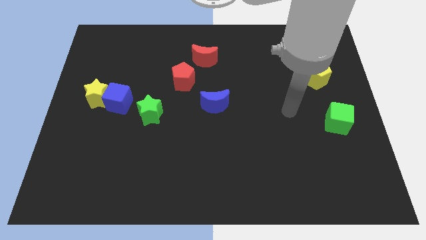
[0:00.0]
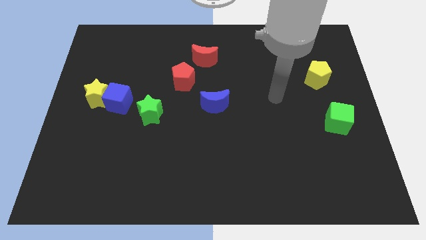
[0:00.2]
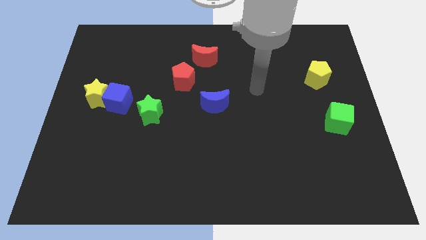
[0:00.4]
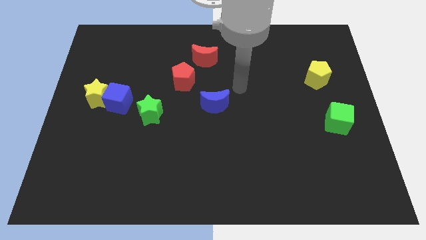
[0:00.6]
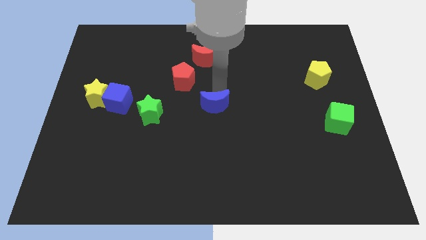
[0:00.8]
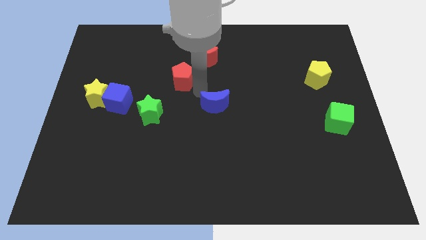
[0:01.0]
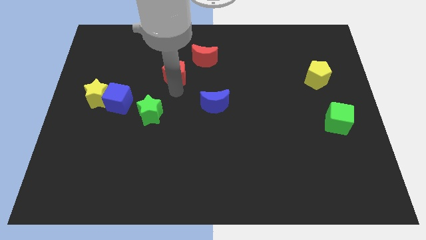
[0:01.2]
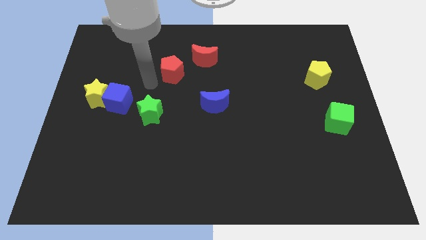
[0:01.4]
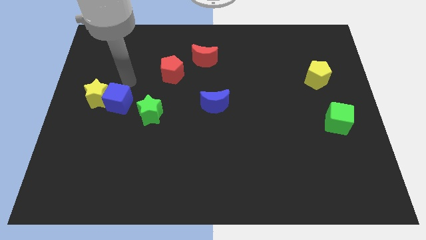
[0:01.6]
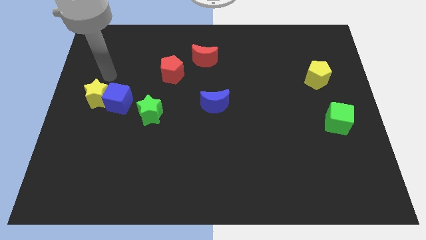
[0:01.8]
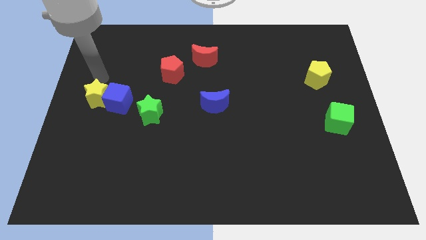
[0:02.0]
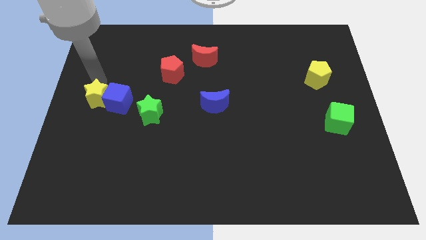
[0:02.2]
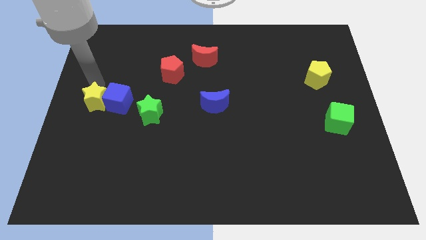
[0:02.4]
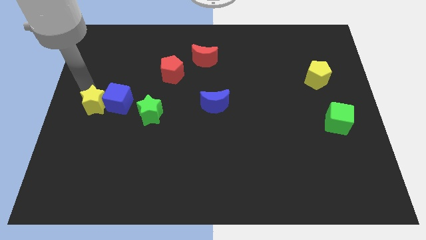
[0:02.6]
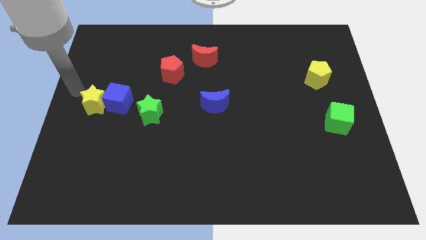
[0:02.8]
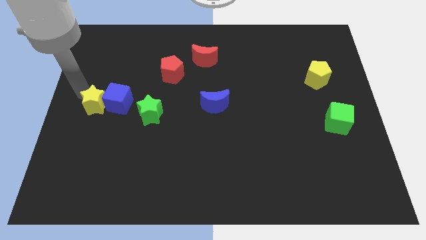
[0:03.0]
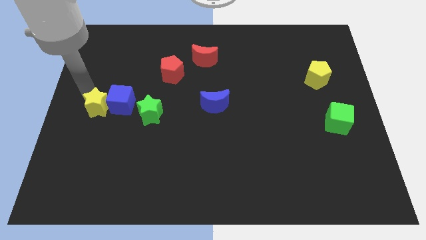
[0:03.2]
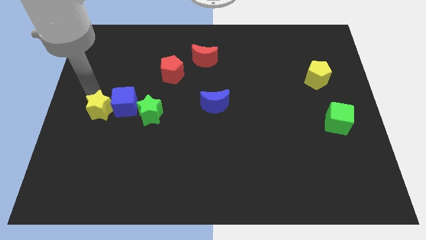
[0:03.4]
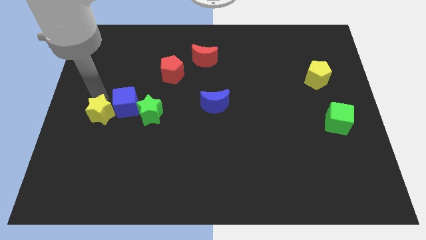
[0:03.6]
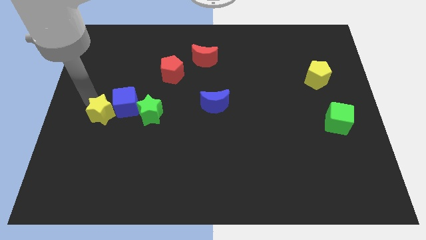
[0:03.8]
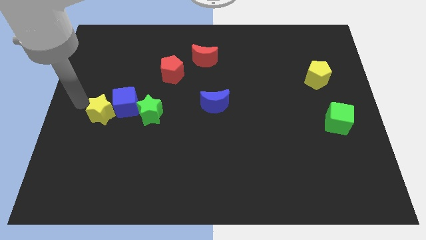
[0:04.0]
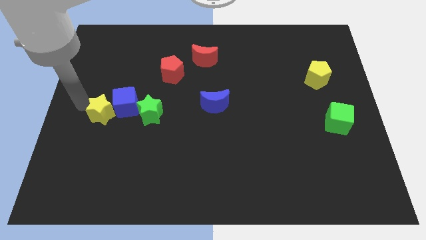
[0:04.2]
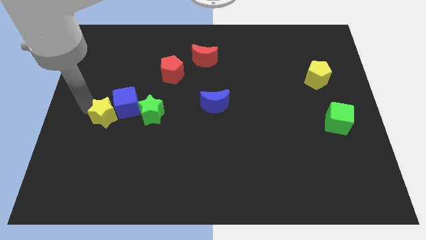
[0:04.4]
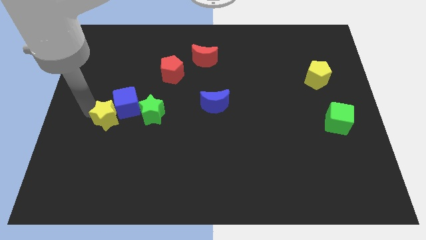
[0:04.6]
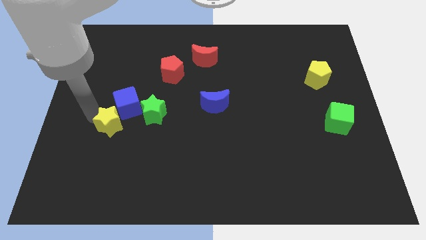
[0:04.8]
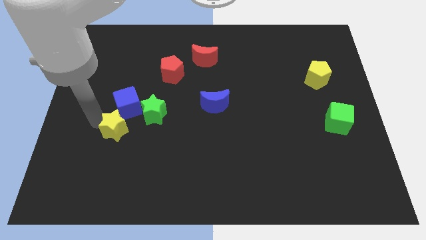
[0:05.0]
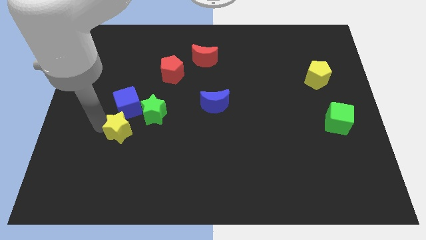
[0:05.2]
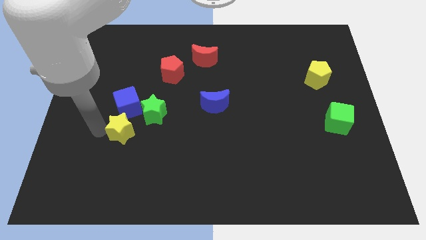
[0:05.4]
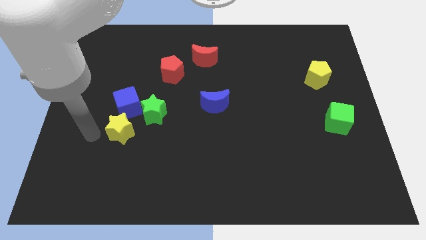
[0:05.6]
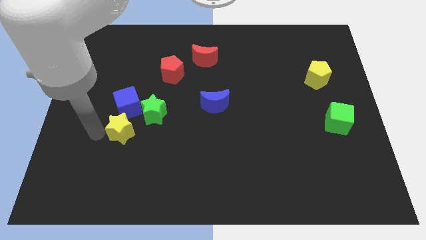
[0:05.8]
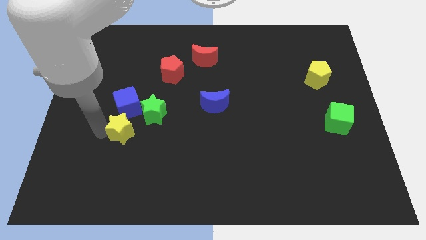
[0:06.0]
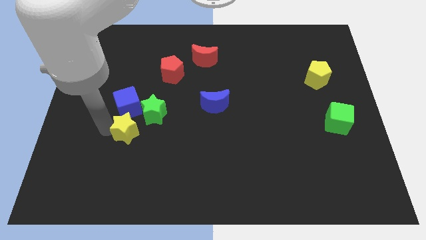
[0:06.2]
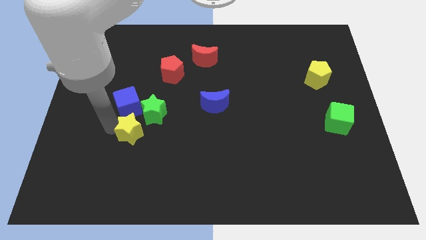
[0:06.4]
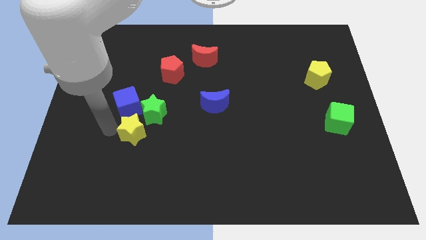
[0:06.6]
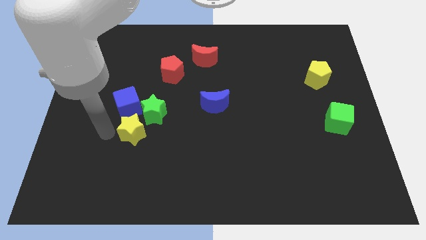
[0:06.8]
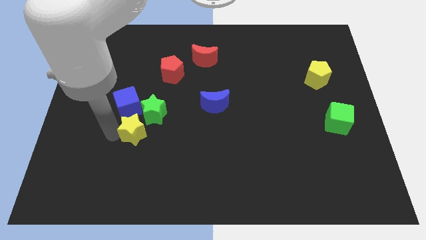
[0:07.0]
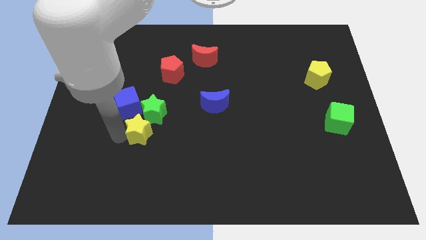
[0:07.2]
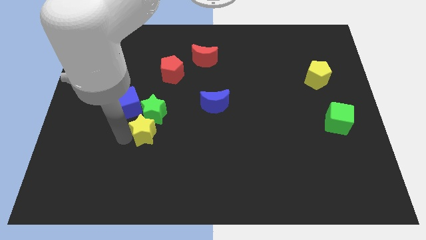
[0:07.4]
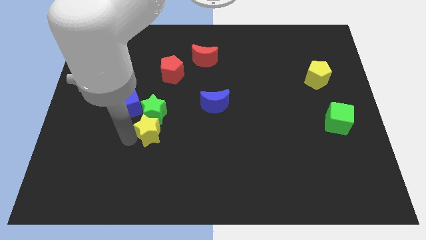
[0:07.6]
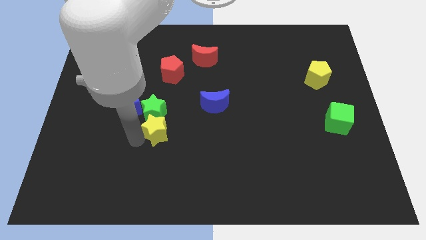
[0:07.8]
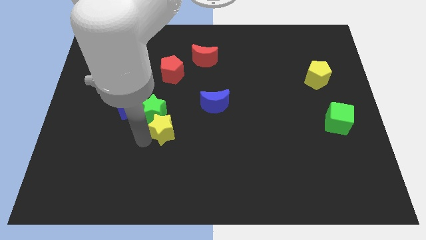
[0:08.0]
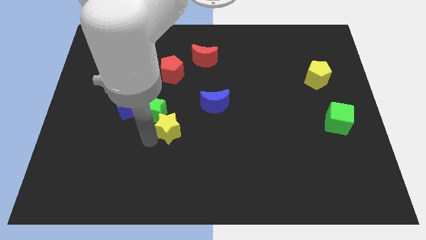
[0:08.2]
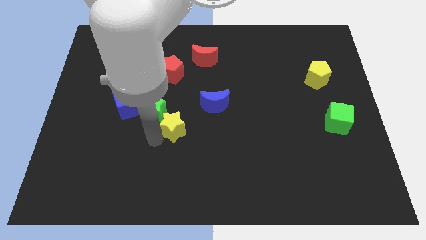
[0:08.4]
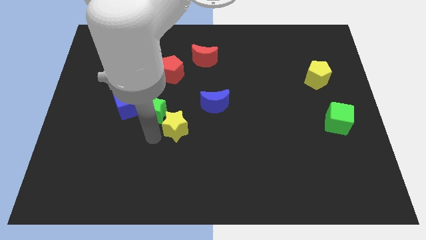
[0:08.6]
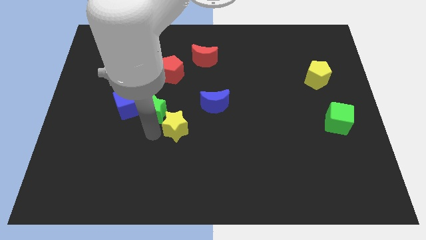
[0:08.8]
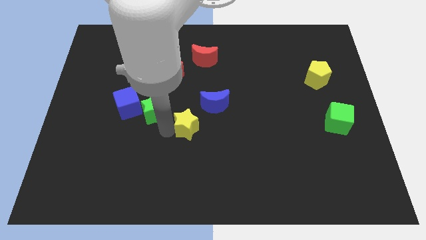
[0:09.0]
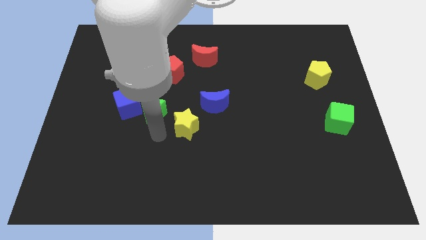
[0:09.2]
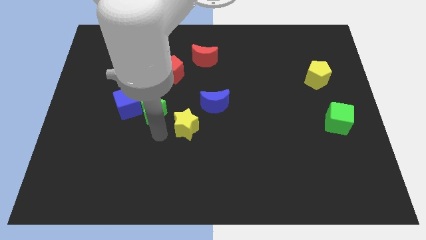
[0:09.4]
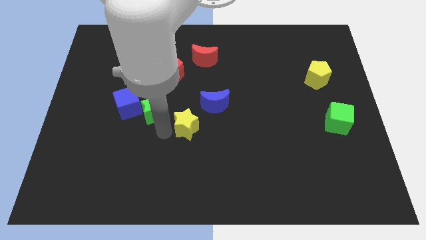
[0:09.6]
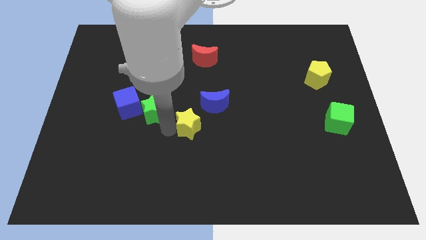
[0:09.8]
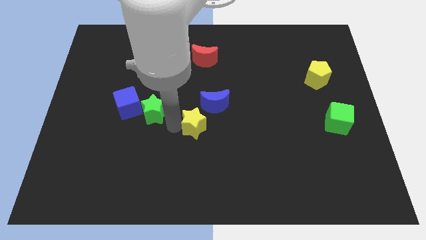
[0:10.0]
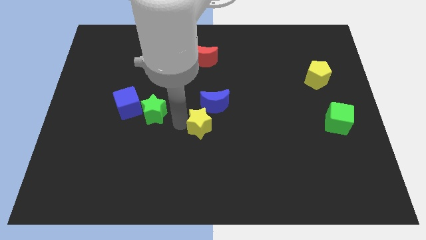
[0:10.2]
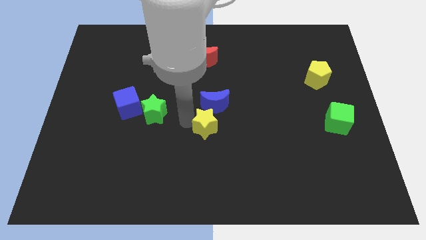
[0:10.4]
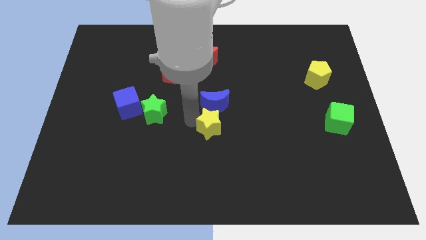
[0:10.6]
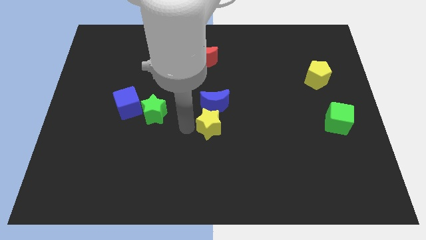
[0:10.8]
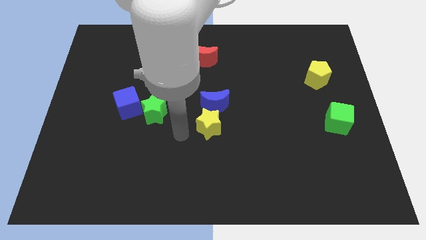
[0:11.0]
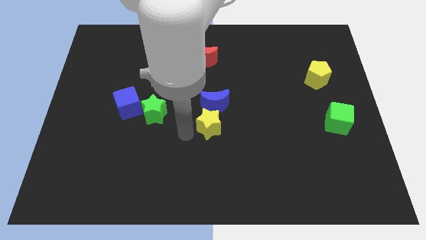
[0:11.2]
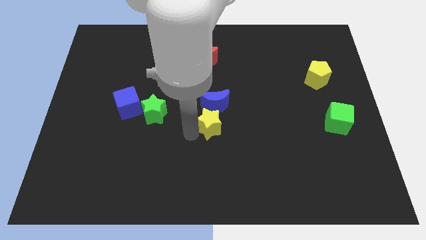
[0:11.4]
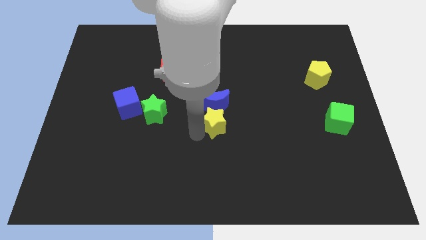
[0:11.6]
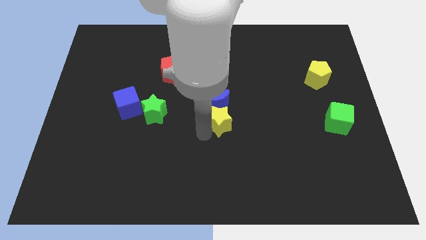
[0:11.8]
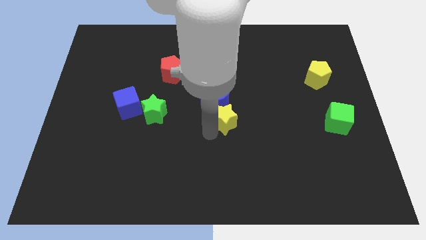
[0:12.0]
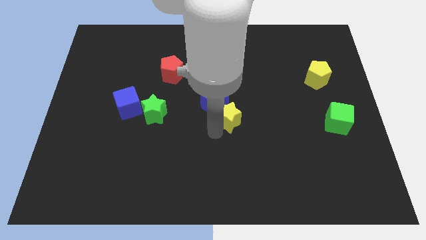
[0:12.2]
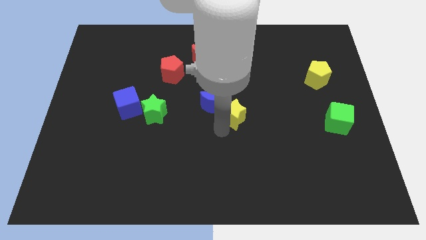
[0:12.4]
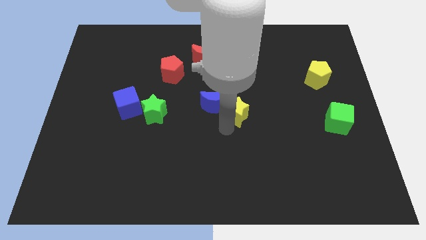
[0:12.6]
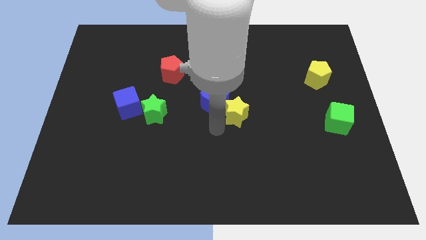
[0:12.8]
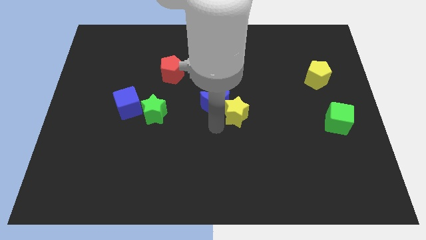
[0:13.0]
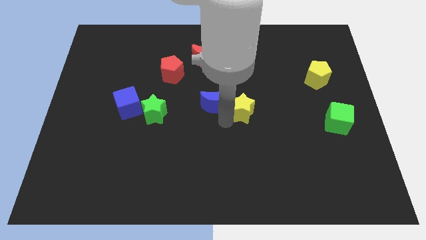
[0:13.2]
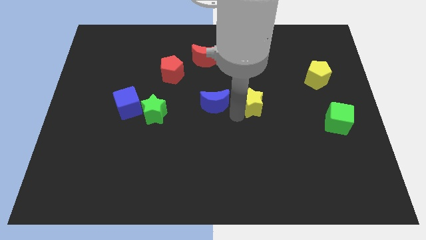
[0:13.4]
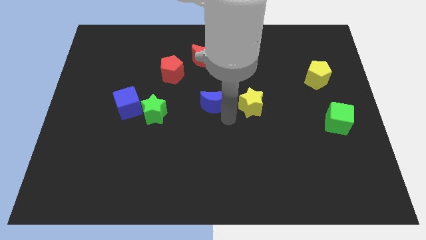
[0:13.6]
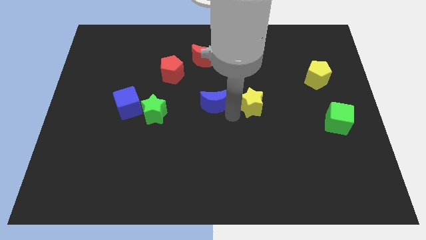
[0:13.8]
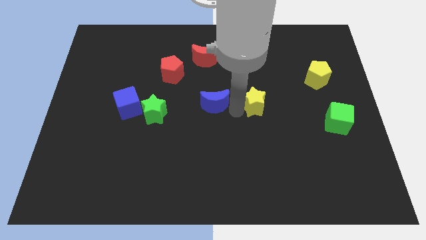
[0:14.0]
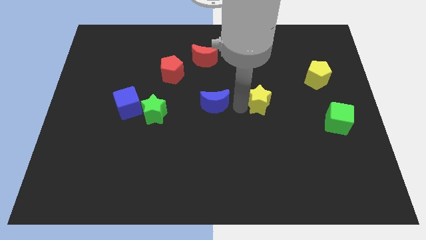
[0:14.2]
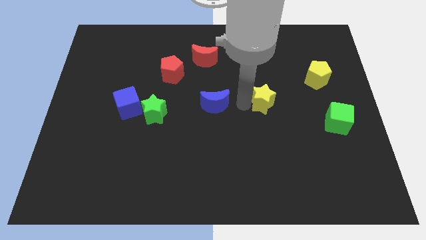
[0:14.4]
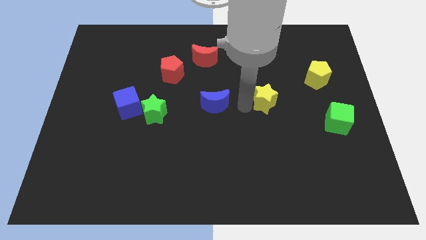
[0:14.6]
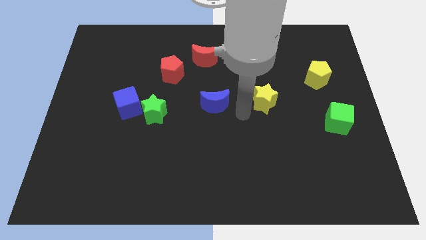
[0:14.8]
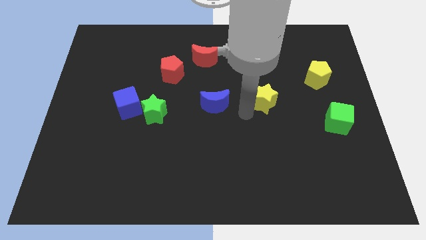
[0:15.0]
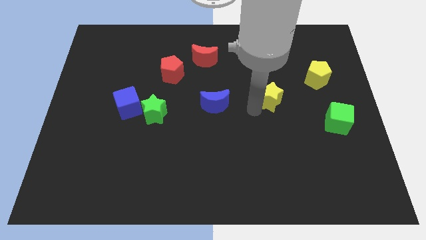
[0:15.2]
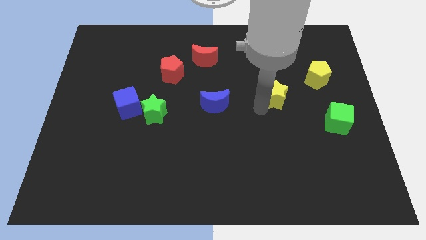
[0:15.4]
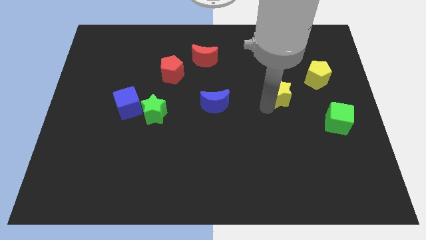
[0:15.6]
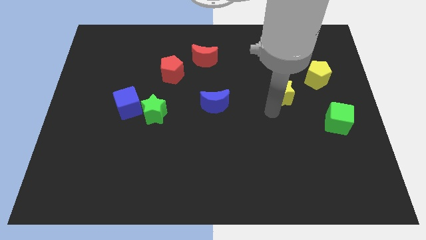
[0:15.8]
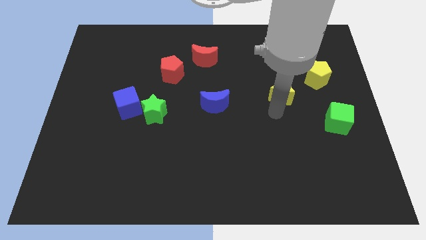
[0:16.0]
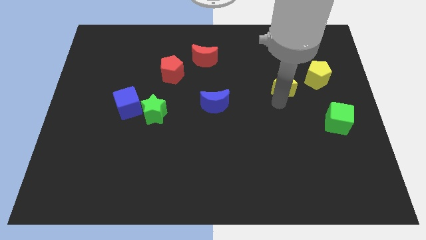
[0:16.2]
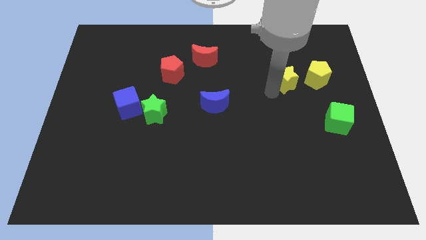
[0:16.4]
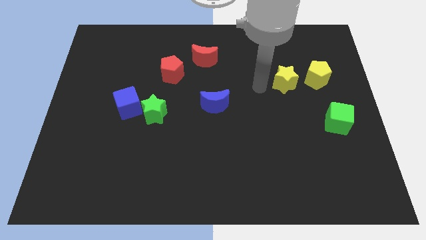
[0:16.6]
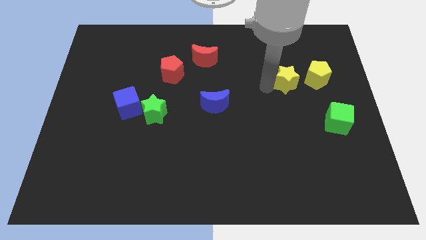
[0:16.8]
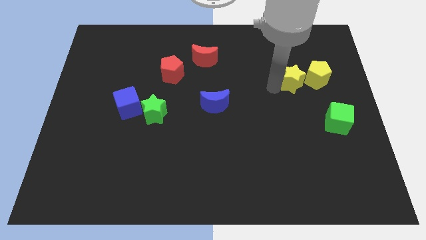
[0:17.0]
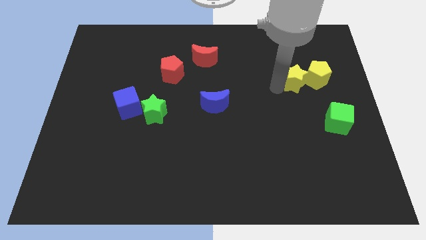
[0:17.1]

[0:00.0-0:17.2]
put the yellow star close to the yellow pentagon
